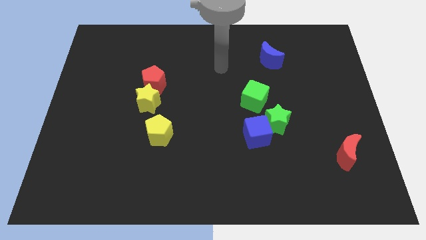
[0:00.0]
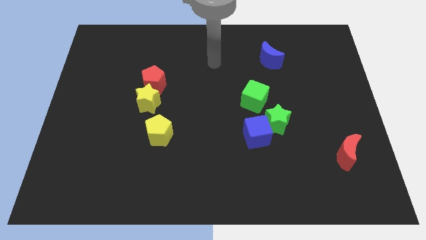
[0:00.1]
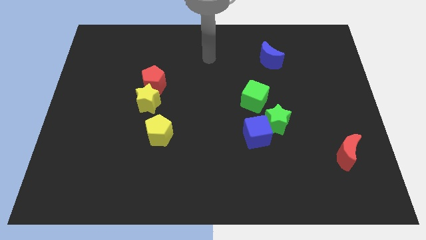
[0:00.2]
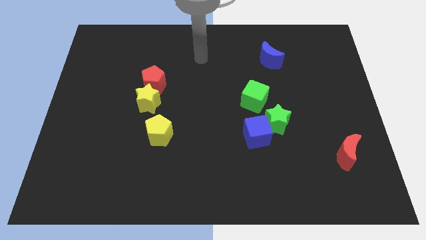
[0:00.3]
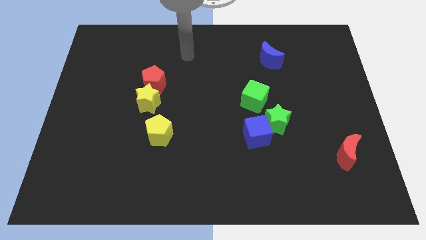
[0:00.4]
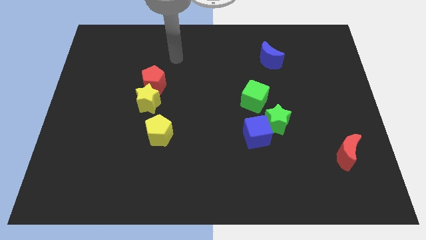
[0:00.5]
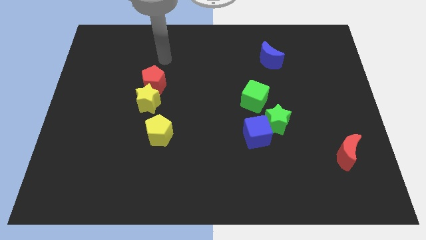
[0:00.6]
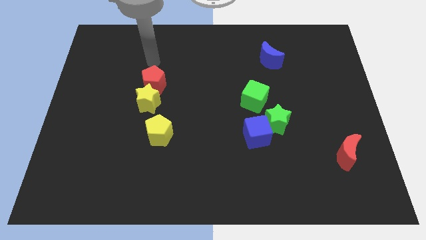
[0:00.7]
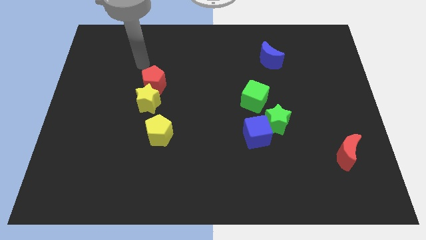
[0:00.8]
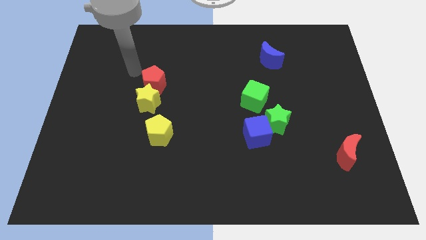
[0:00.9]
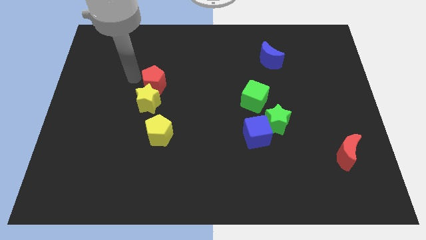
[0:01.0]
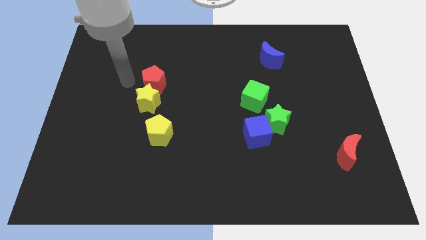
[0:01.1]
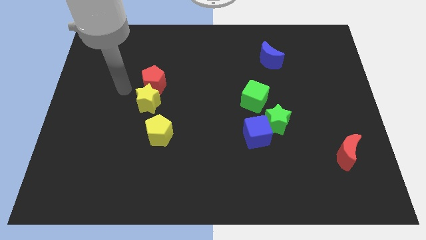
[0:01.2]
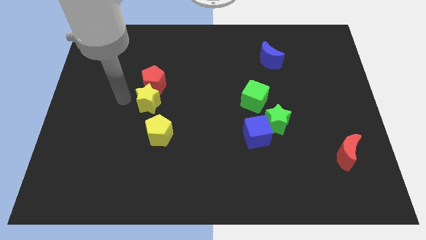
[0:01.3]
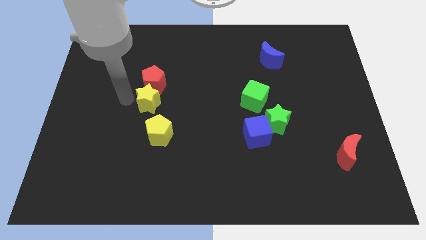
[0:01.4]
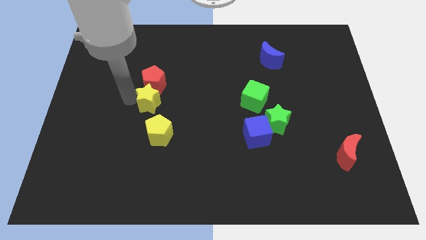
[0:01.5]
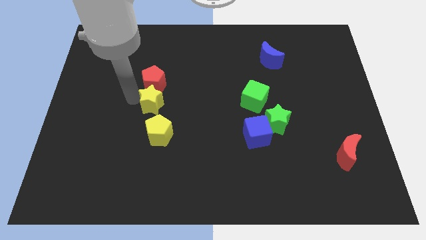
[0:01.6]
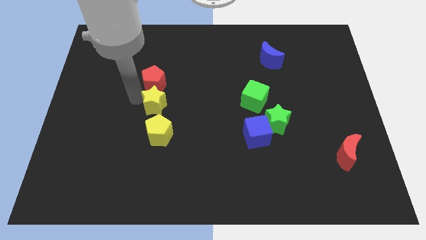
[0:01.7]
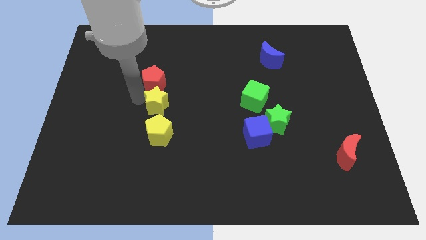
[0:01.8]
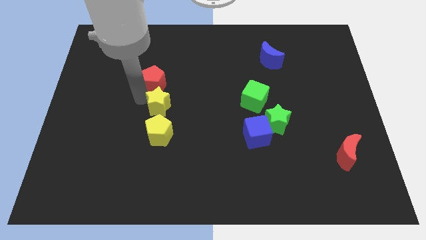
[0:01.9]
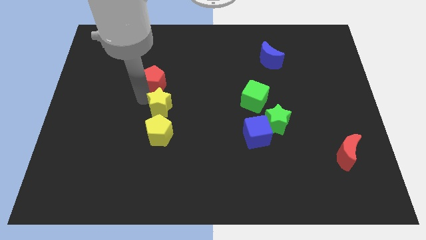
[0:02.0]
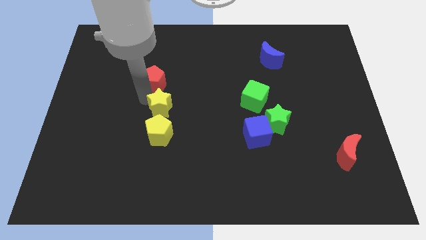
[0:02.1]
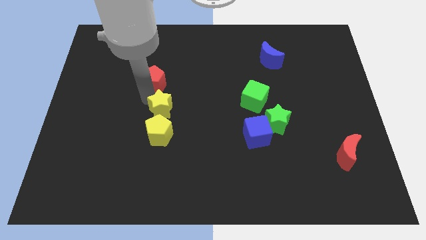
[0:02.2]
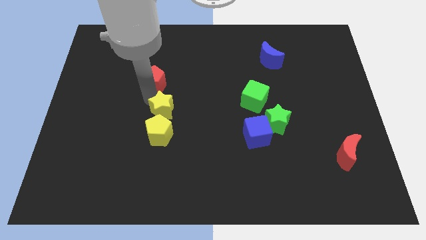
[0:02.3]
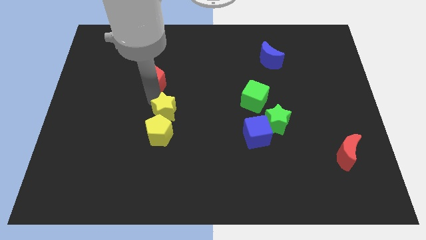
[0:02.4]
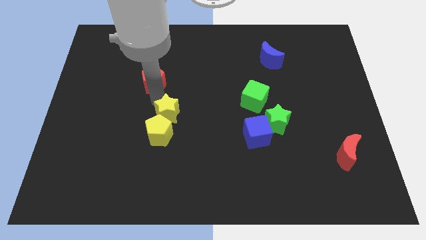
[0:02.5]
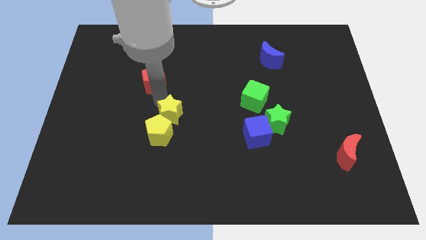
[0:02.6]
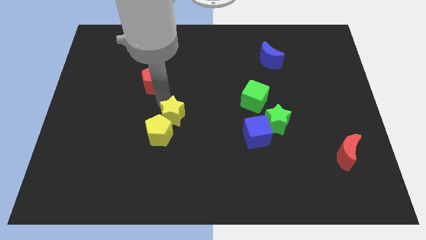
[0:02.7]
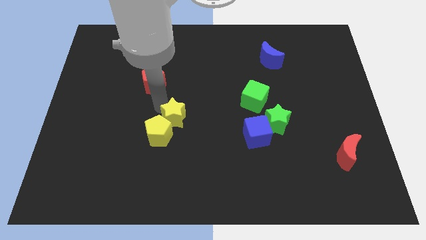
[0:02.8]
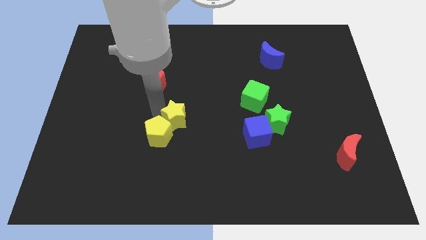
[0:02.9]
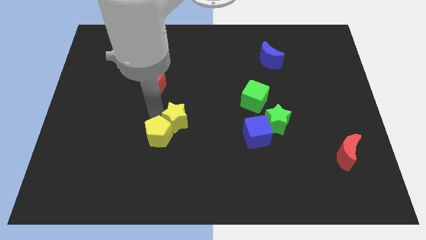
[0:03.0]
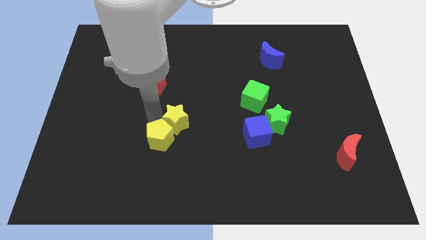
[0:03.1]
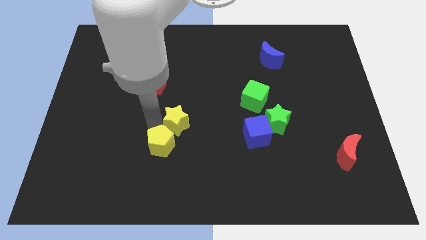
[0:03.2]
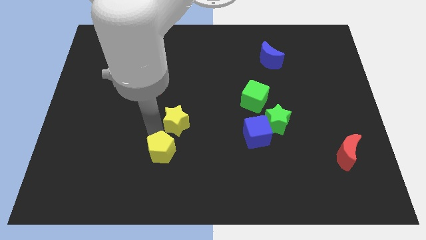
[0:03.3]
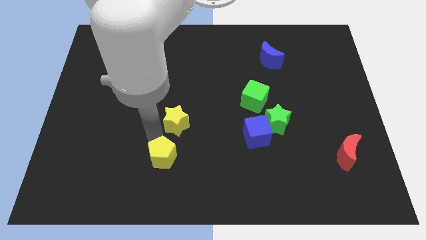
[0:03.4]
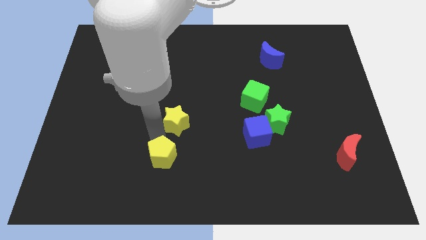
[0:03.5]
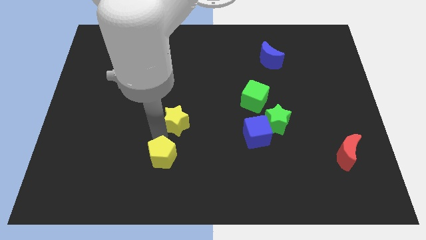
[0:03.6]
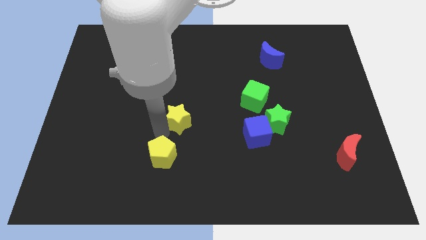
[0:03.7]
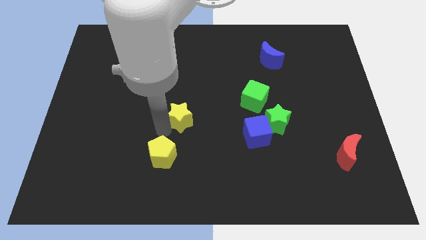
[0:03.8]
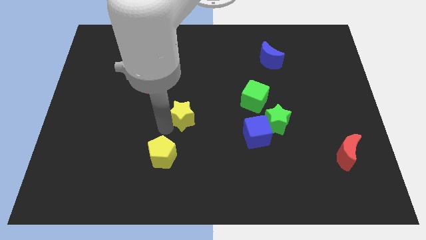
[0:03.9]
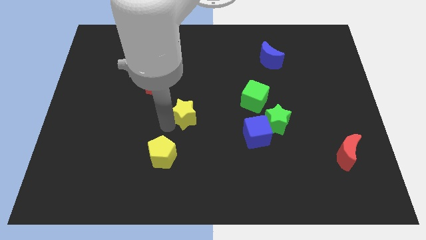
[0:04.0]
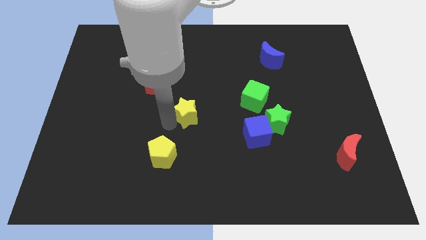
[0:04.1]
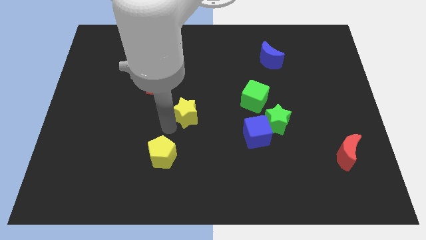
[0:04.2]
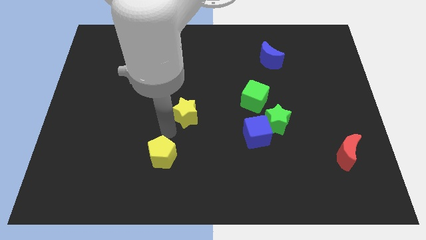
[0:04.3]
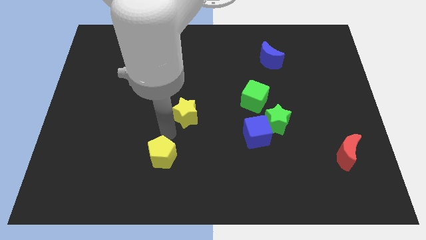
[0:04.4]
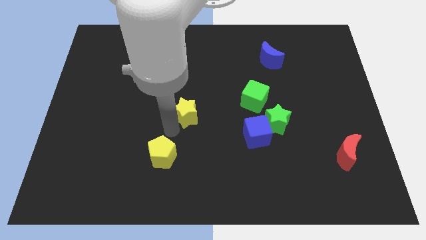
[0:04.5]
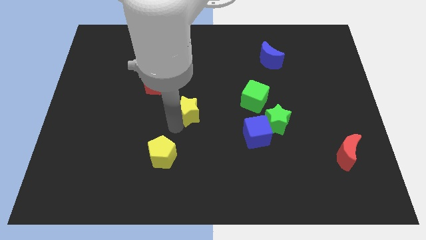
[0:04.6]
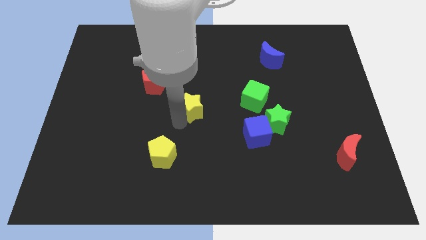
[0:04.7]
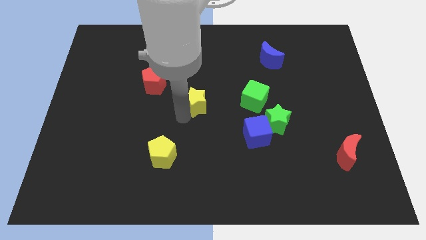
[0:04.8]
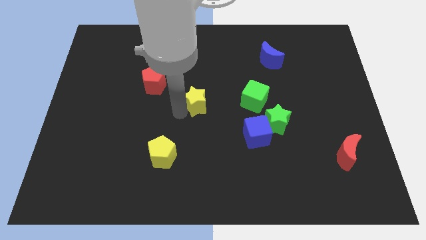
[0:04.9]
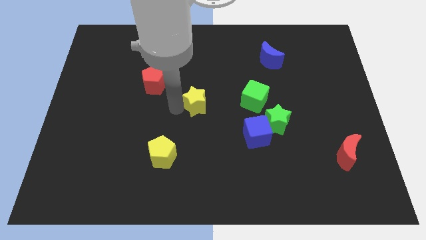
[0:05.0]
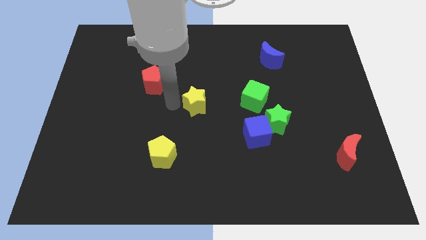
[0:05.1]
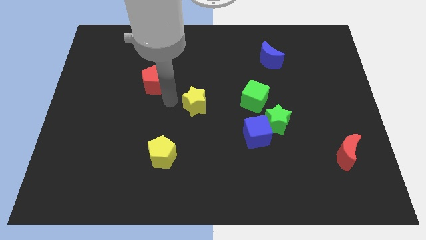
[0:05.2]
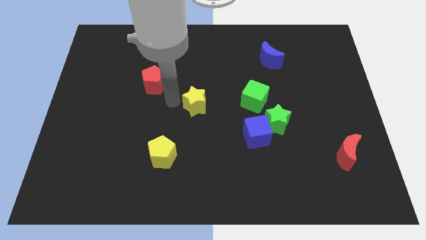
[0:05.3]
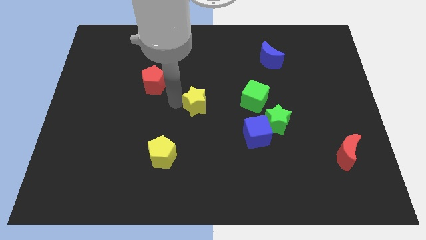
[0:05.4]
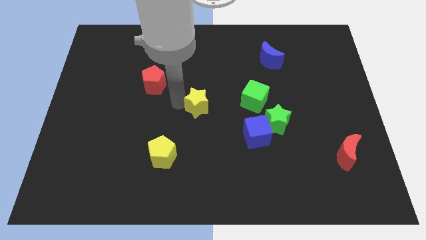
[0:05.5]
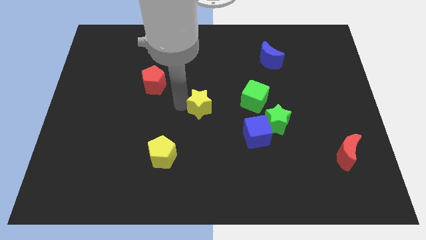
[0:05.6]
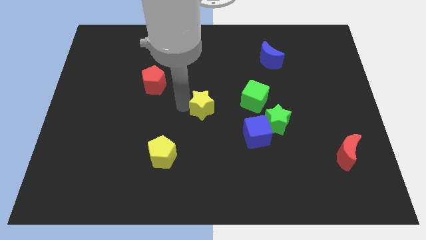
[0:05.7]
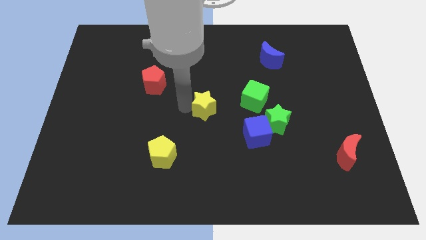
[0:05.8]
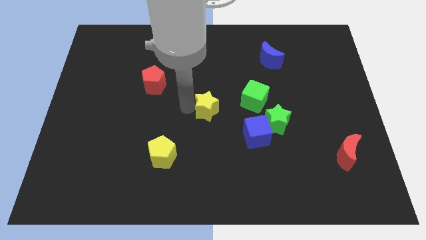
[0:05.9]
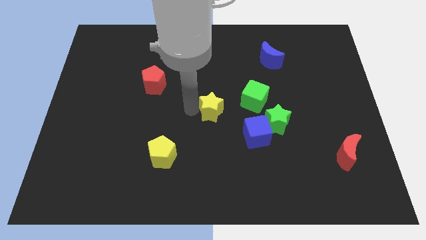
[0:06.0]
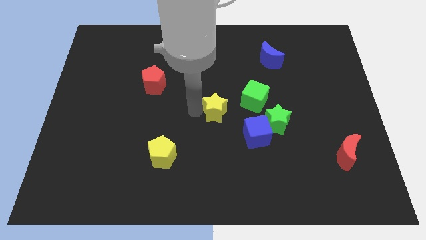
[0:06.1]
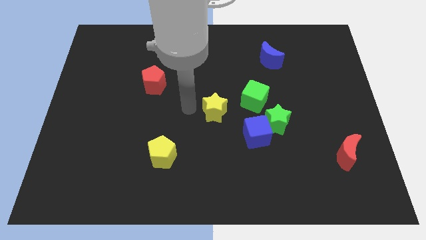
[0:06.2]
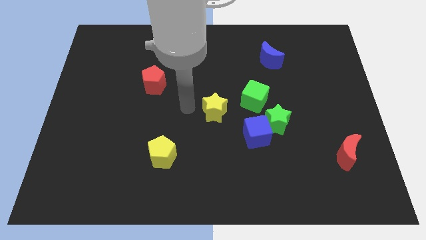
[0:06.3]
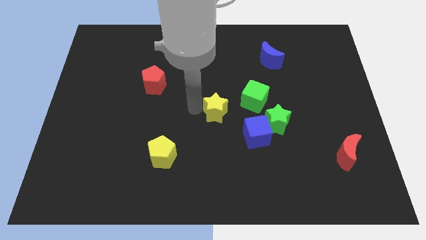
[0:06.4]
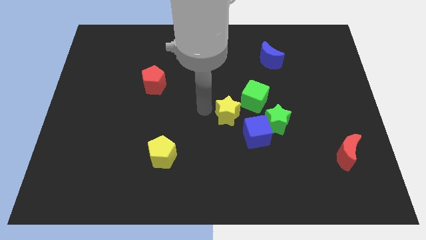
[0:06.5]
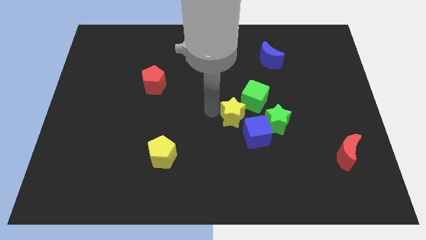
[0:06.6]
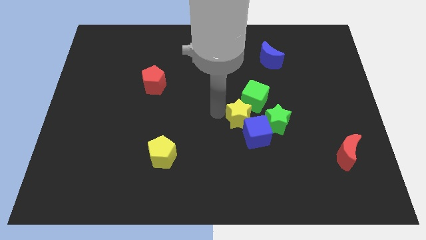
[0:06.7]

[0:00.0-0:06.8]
slide the yellow star right

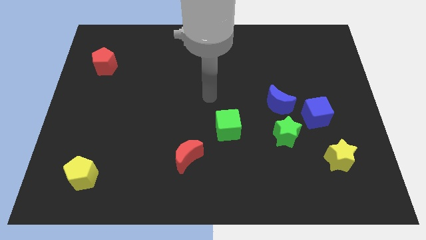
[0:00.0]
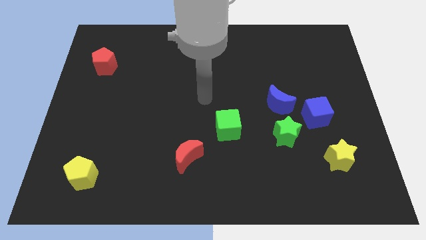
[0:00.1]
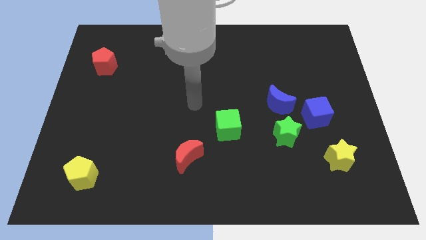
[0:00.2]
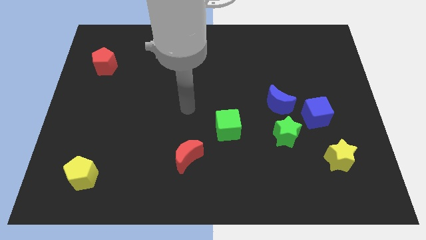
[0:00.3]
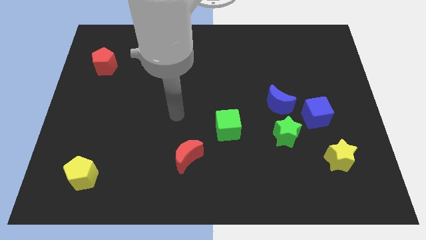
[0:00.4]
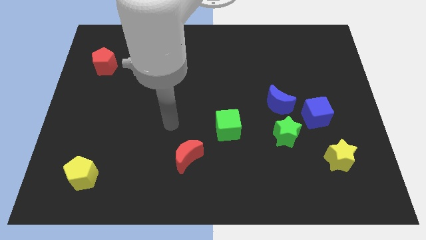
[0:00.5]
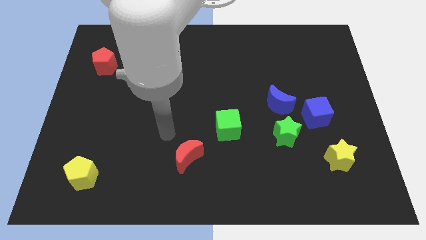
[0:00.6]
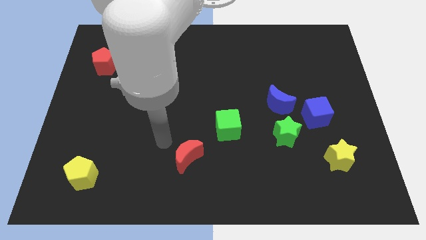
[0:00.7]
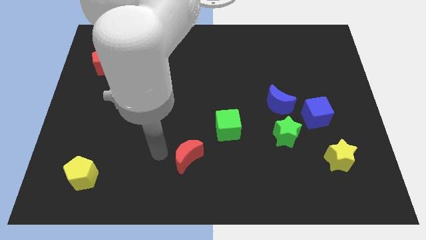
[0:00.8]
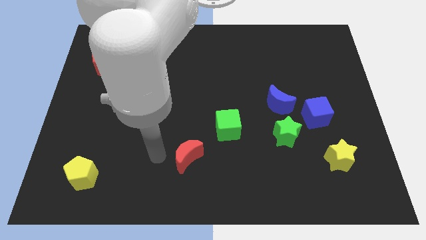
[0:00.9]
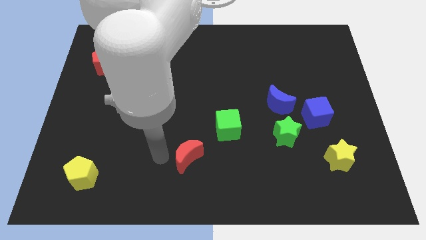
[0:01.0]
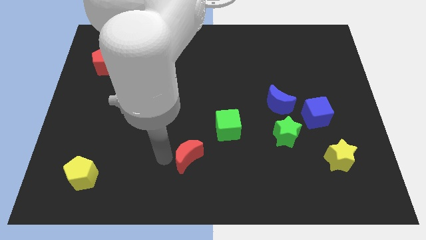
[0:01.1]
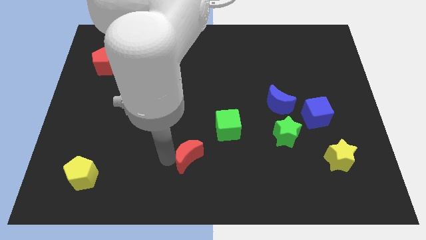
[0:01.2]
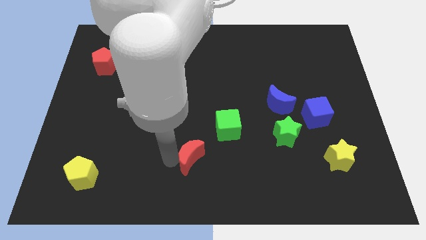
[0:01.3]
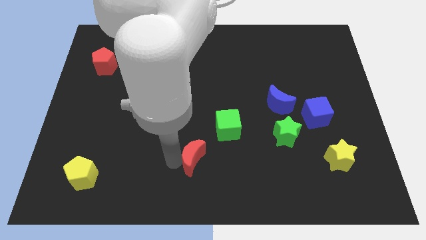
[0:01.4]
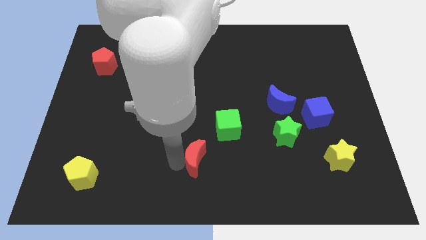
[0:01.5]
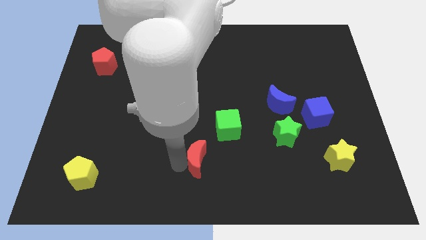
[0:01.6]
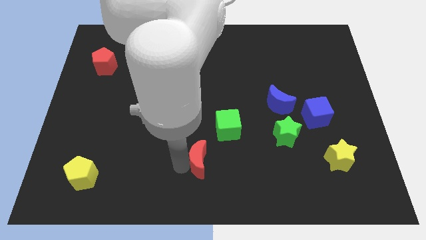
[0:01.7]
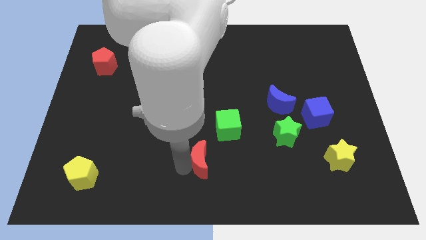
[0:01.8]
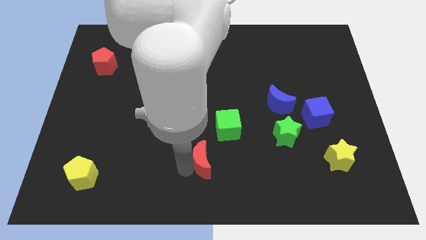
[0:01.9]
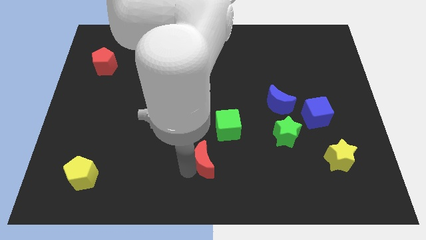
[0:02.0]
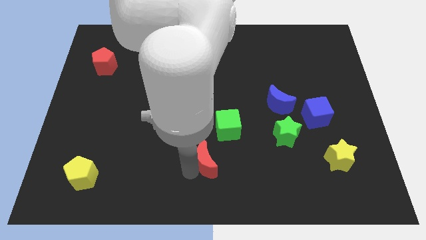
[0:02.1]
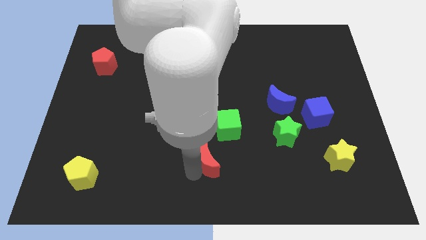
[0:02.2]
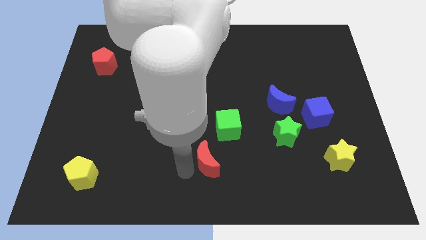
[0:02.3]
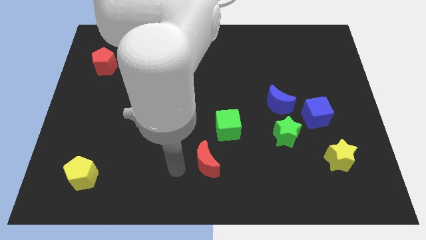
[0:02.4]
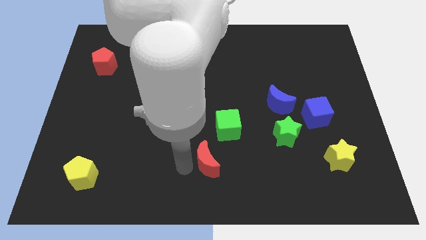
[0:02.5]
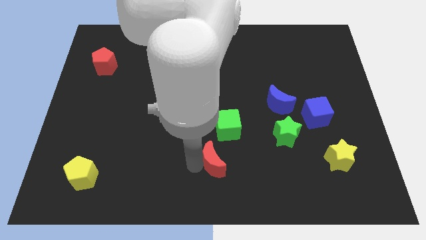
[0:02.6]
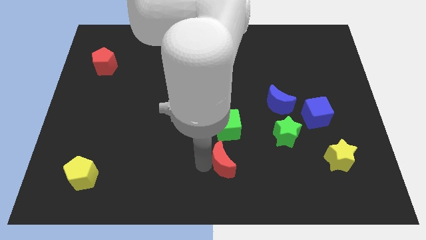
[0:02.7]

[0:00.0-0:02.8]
push the red moon a little bit right
